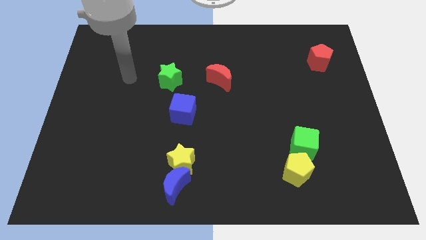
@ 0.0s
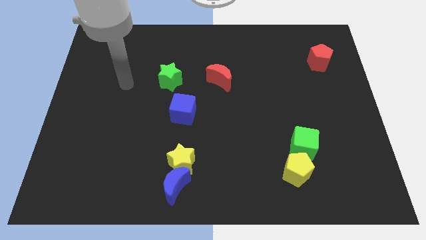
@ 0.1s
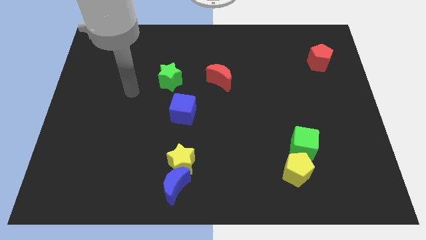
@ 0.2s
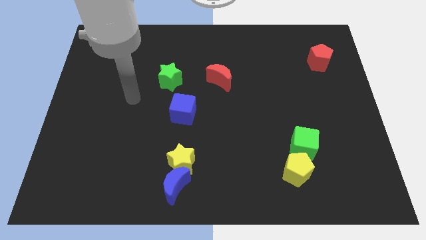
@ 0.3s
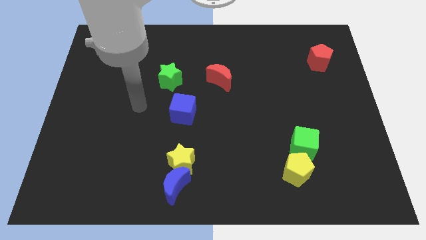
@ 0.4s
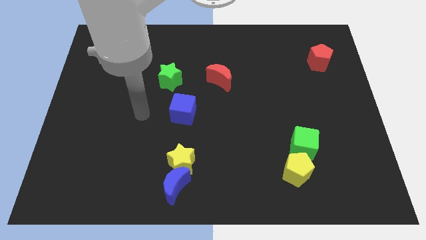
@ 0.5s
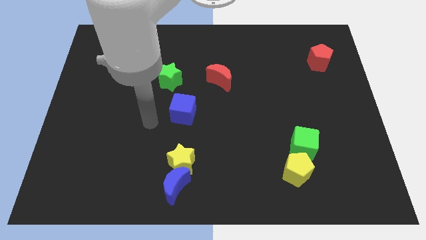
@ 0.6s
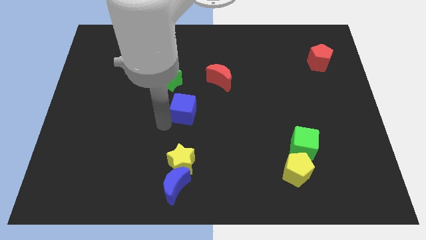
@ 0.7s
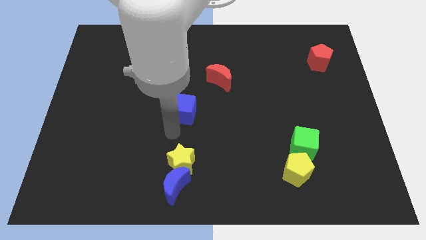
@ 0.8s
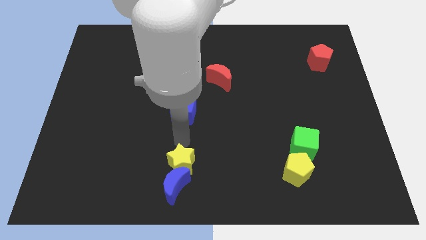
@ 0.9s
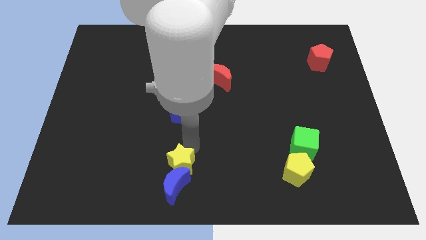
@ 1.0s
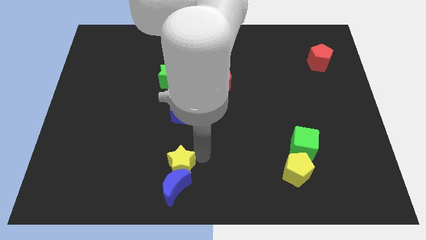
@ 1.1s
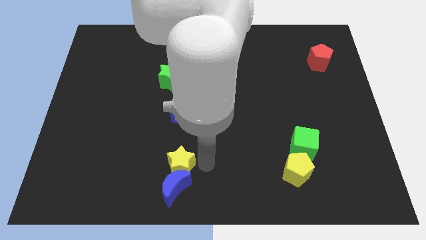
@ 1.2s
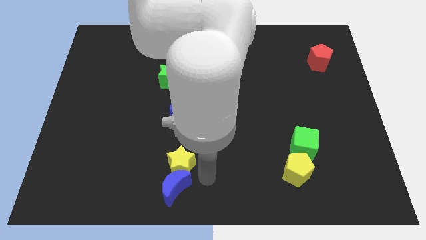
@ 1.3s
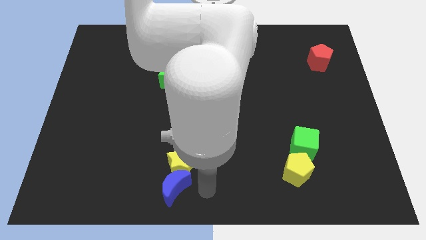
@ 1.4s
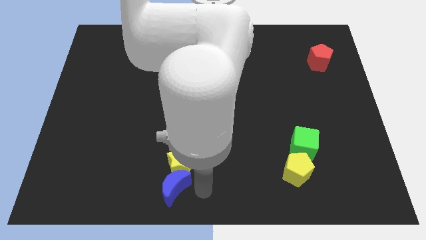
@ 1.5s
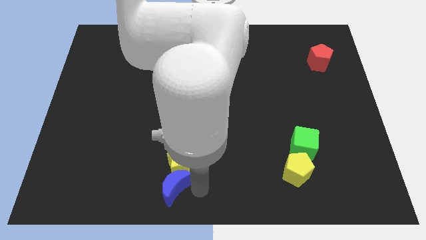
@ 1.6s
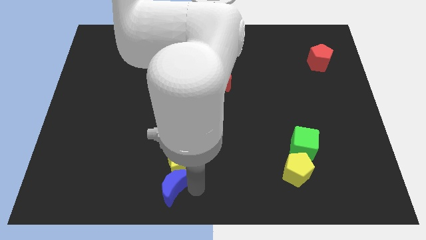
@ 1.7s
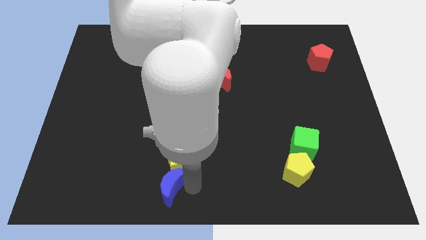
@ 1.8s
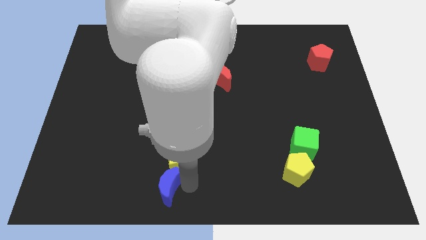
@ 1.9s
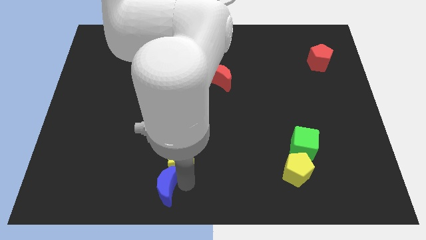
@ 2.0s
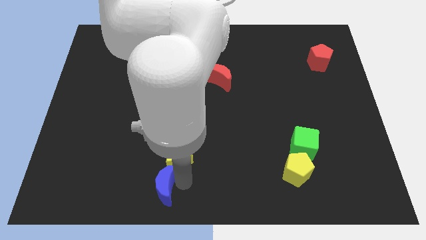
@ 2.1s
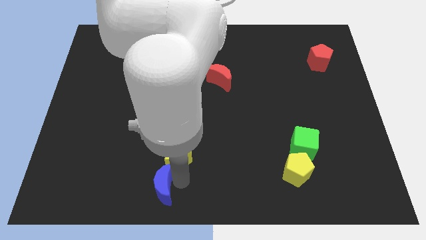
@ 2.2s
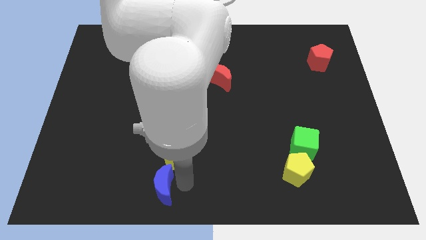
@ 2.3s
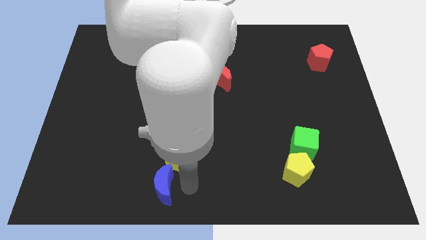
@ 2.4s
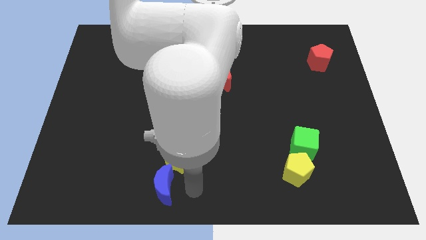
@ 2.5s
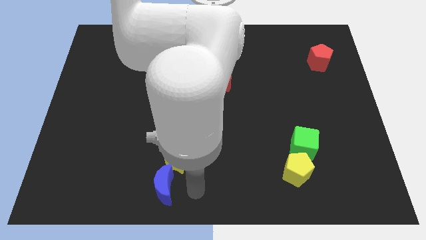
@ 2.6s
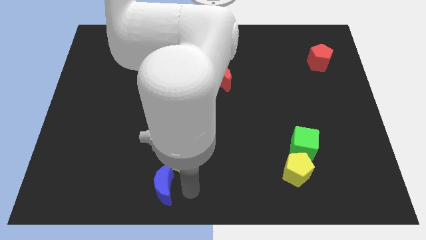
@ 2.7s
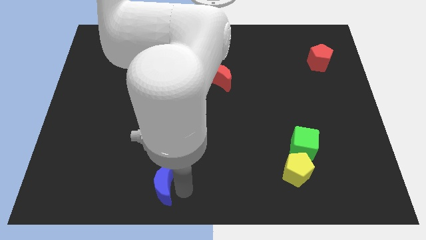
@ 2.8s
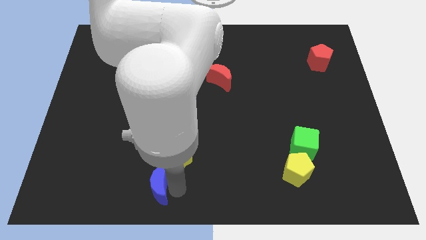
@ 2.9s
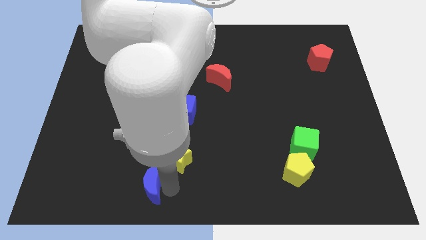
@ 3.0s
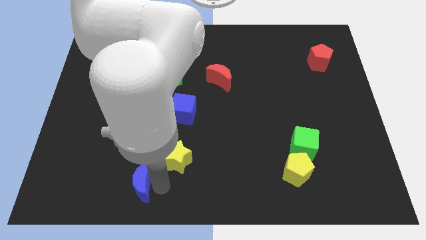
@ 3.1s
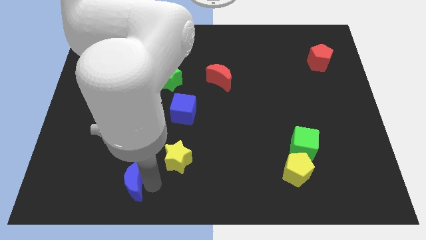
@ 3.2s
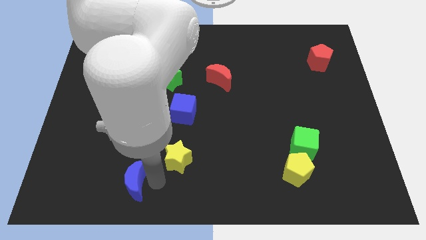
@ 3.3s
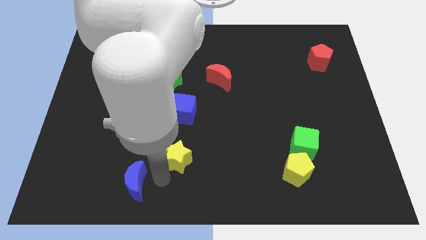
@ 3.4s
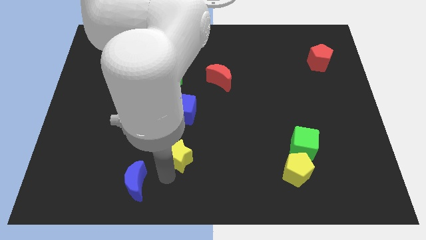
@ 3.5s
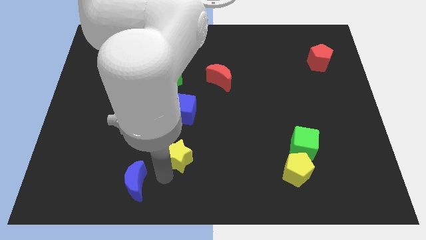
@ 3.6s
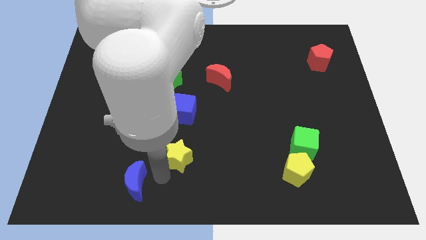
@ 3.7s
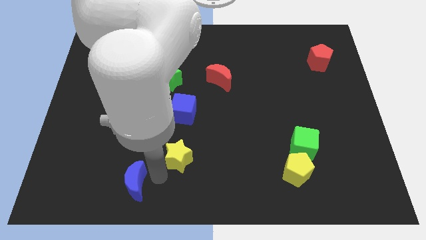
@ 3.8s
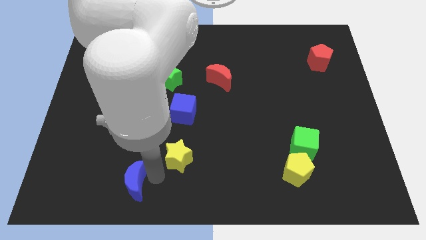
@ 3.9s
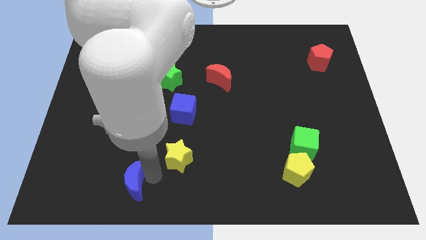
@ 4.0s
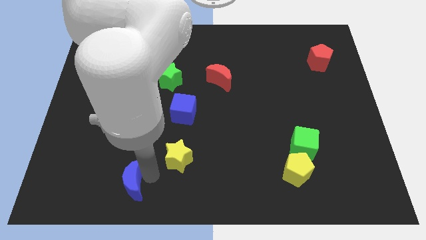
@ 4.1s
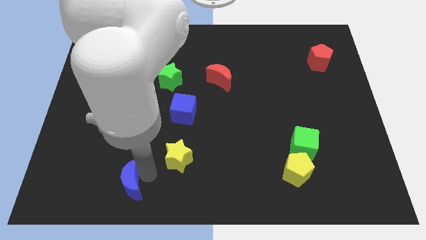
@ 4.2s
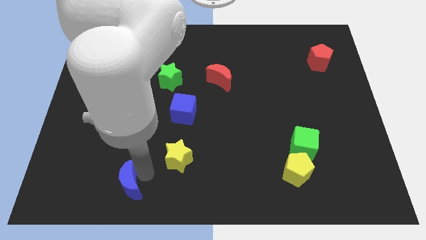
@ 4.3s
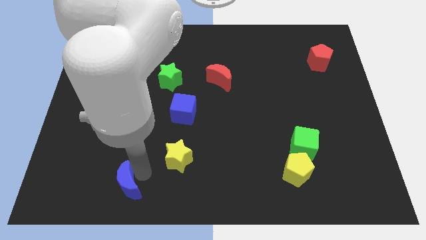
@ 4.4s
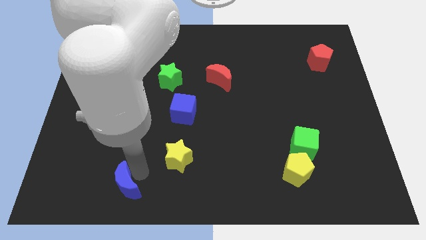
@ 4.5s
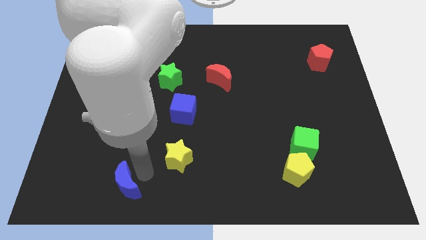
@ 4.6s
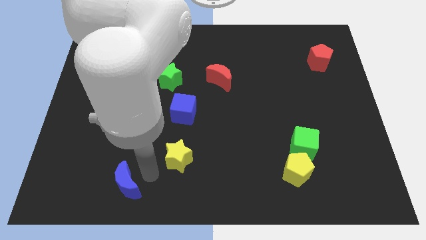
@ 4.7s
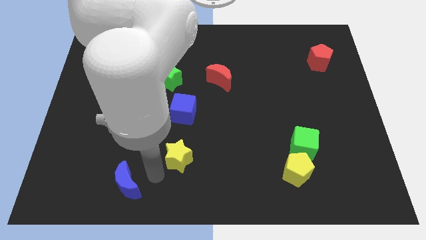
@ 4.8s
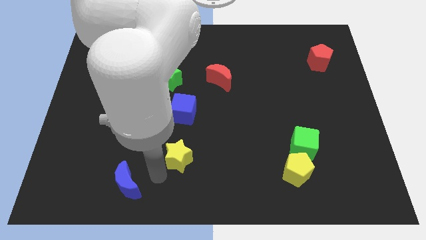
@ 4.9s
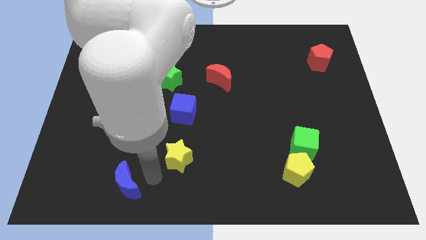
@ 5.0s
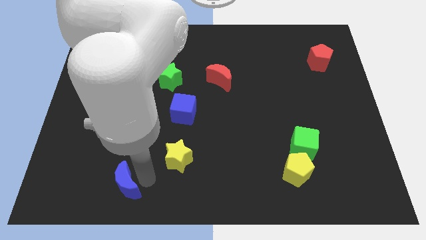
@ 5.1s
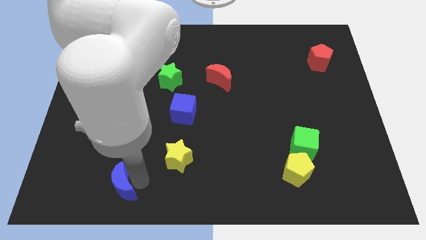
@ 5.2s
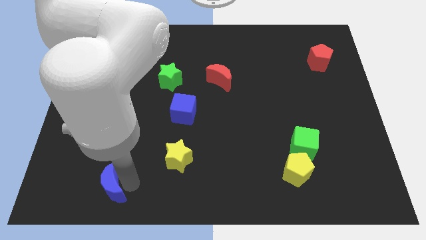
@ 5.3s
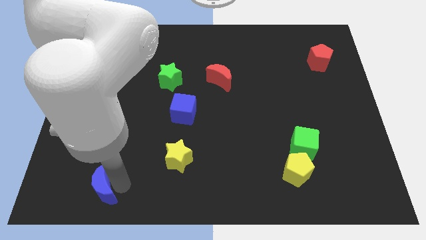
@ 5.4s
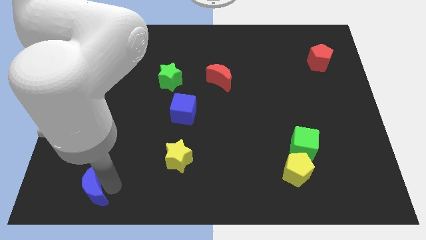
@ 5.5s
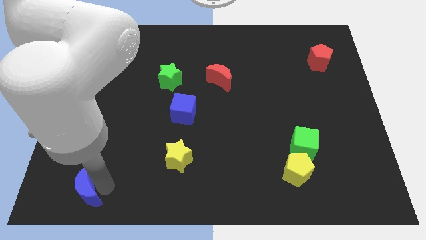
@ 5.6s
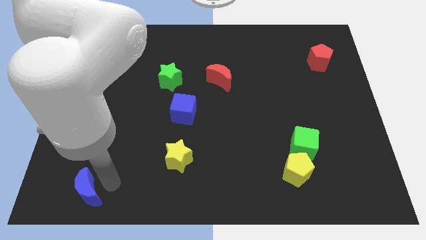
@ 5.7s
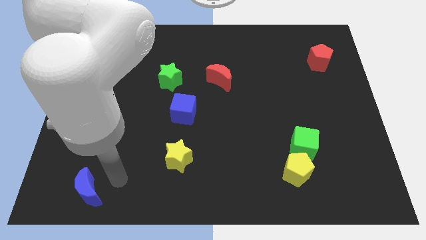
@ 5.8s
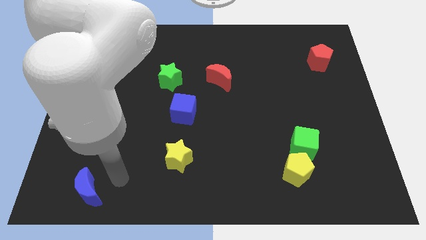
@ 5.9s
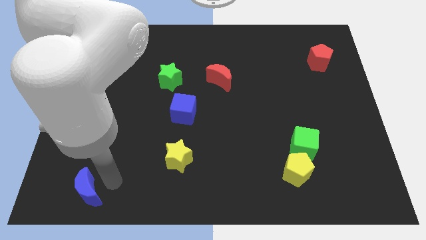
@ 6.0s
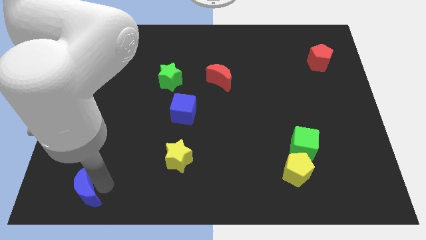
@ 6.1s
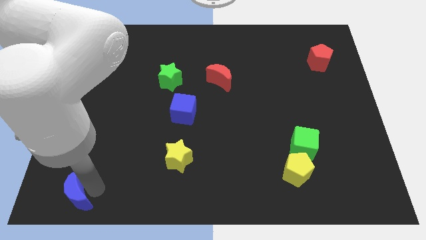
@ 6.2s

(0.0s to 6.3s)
slide the blue moon to the bottom left
